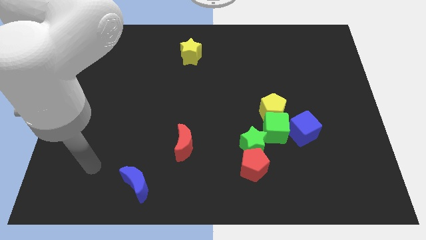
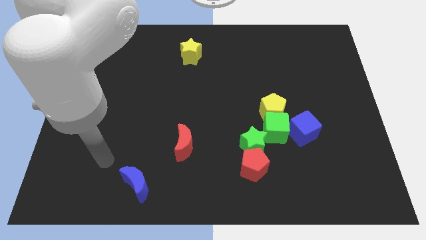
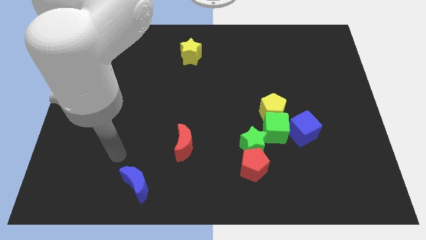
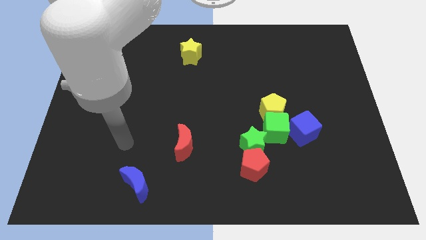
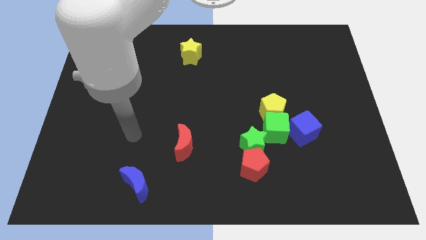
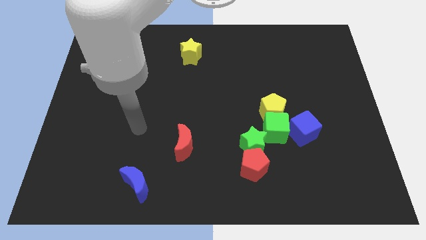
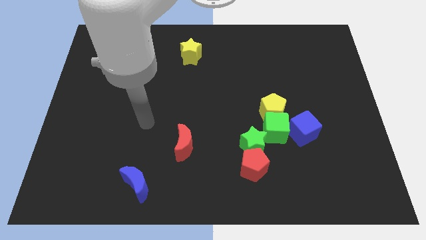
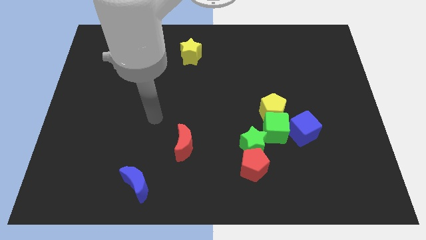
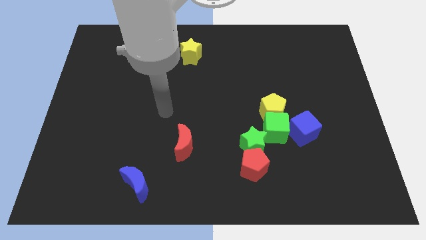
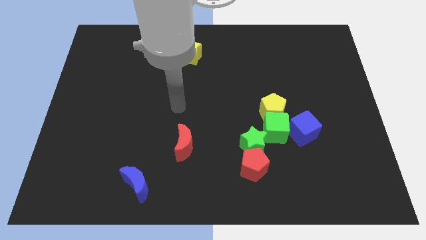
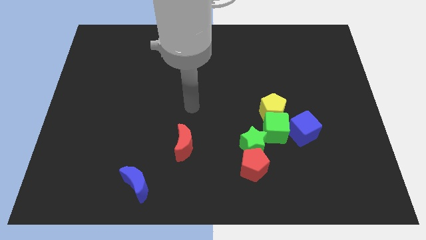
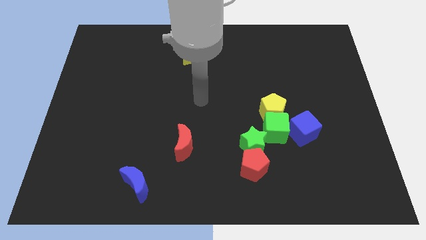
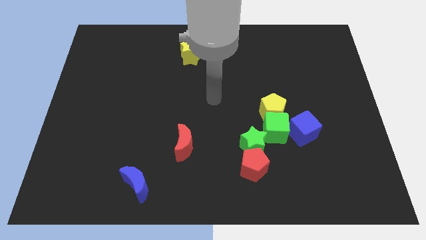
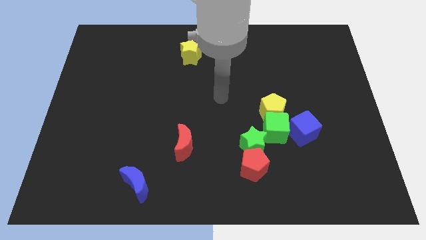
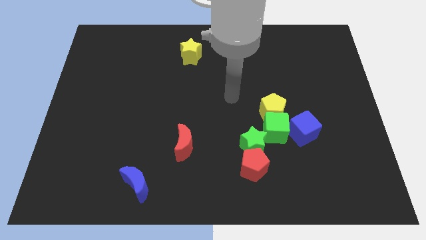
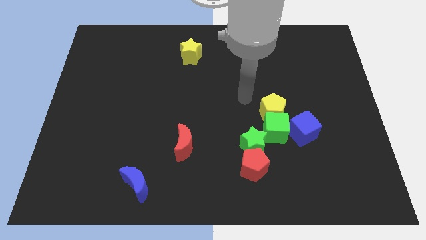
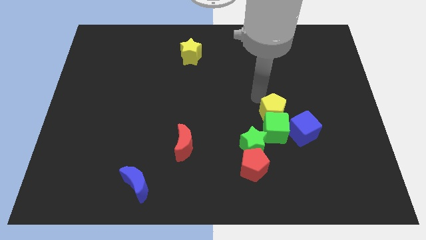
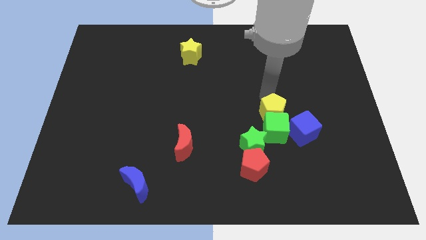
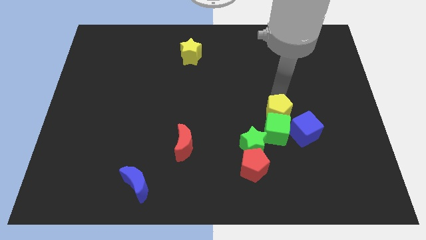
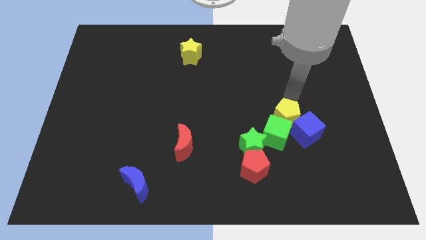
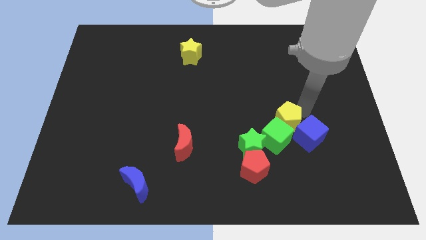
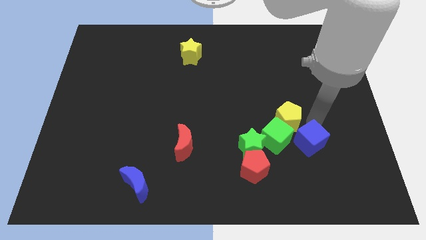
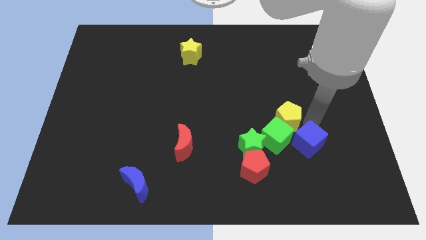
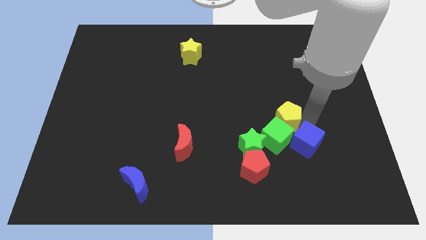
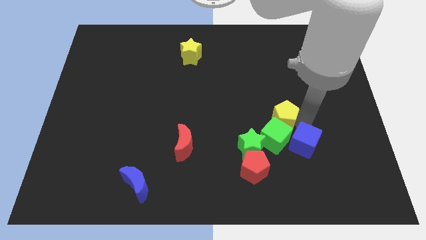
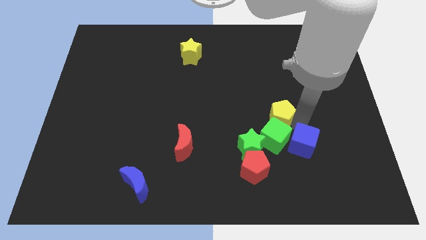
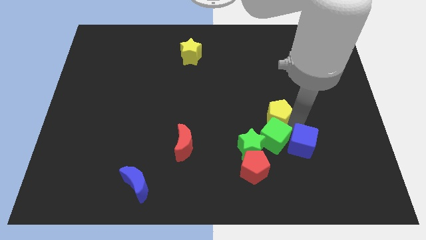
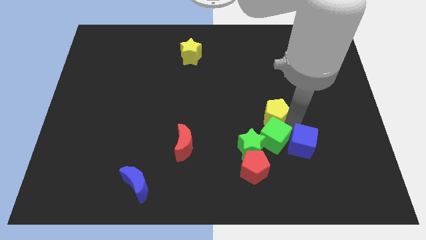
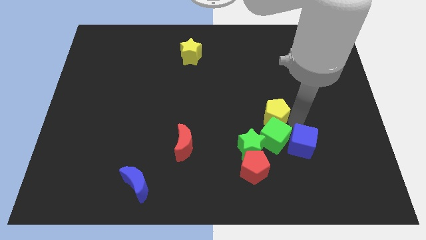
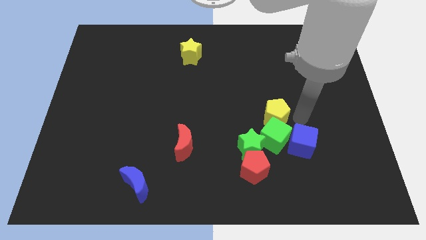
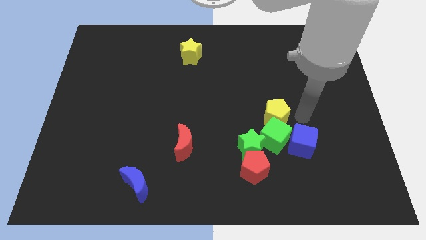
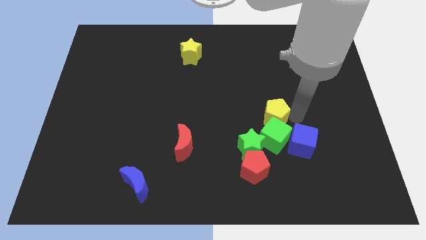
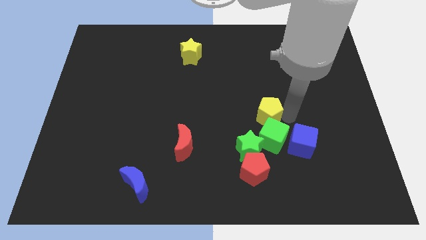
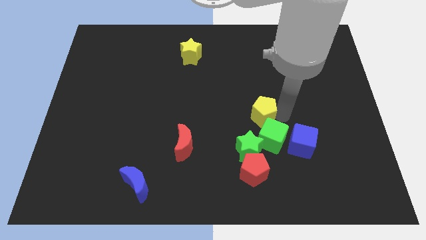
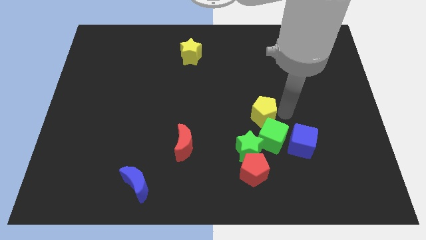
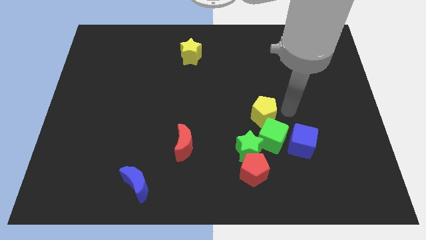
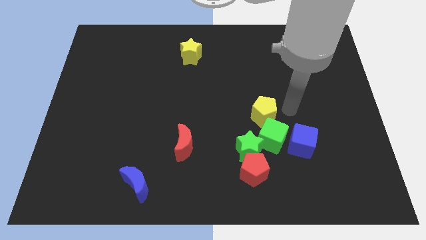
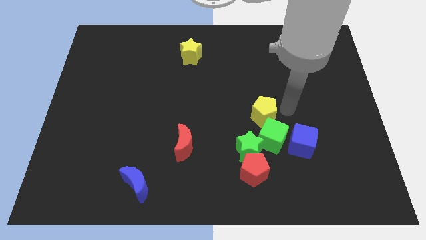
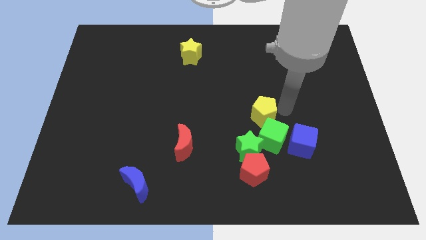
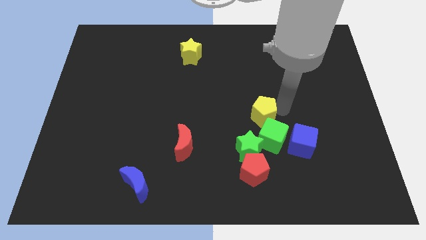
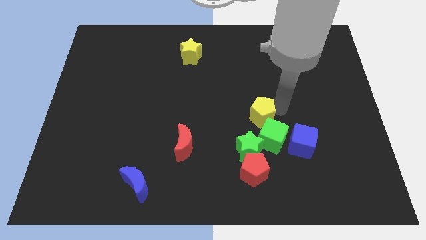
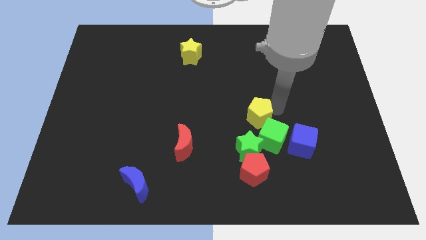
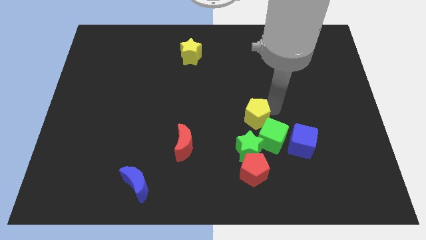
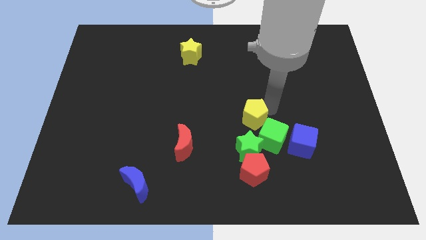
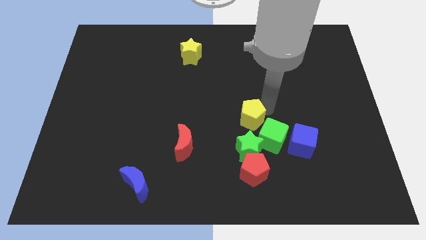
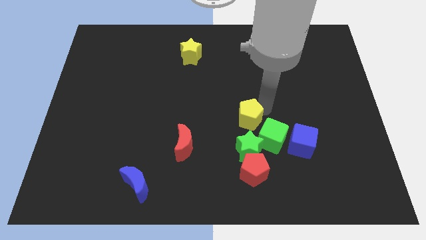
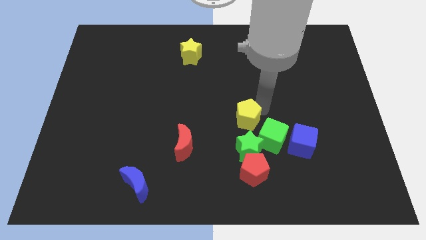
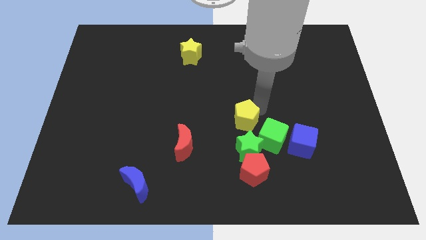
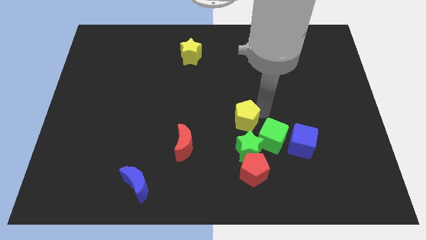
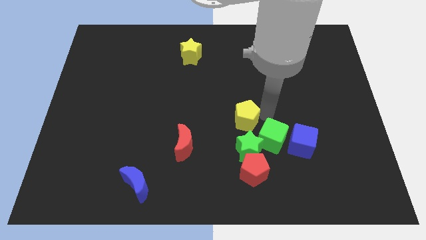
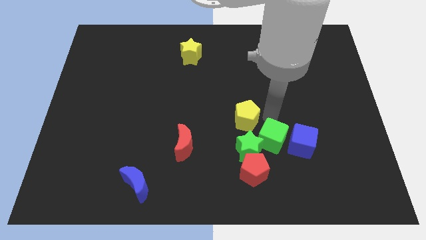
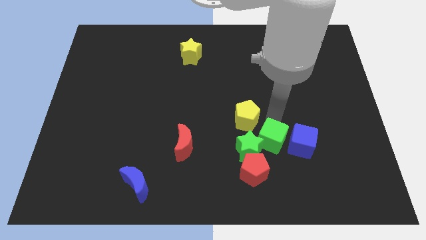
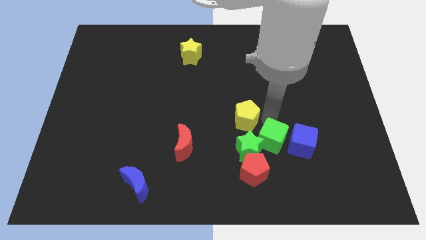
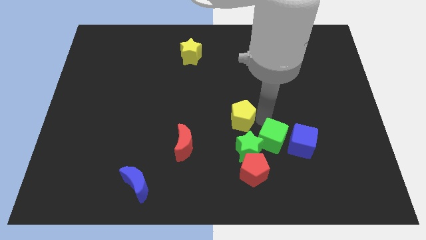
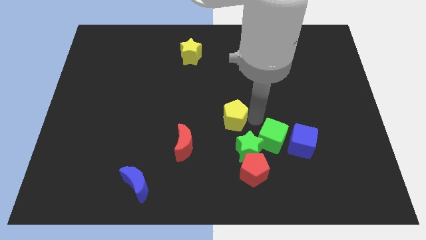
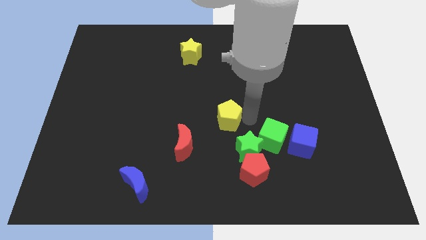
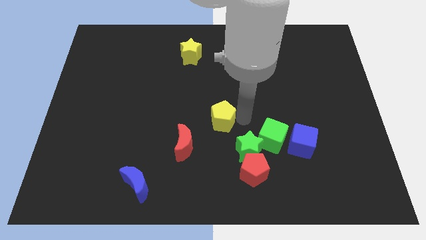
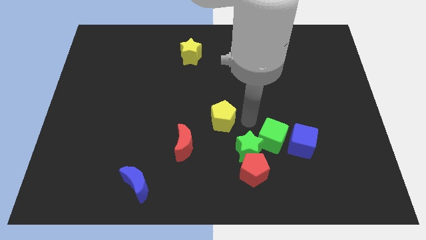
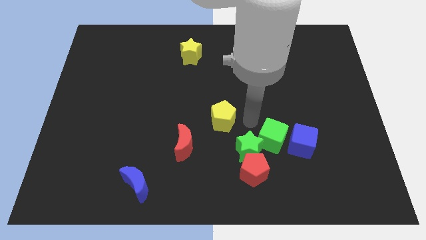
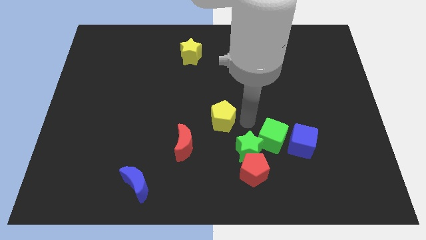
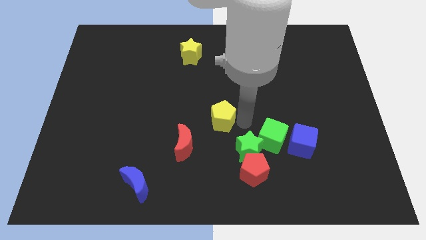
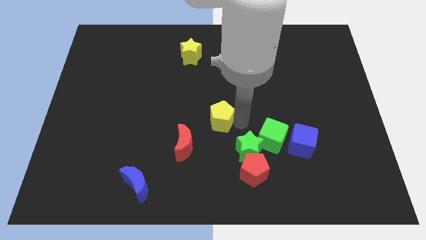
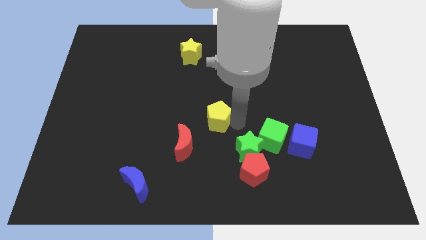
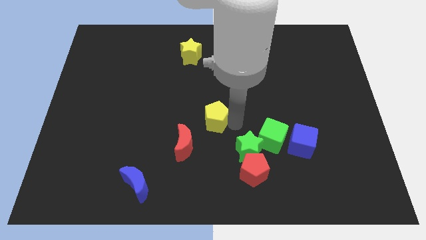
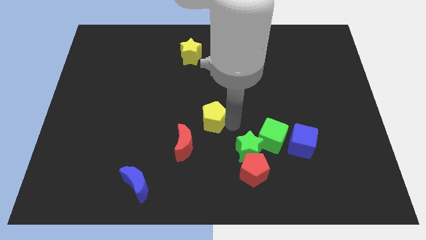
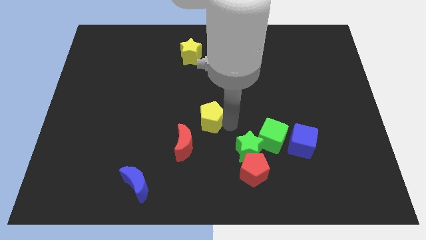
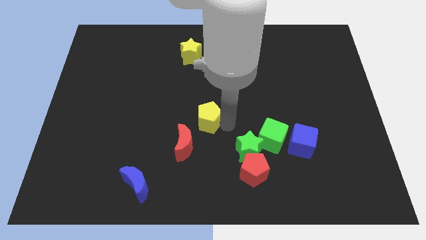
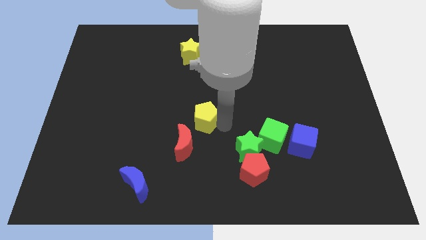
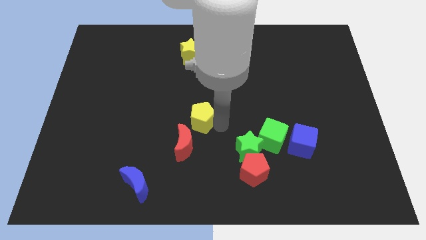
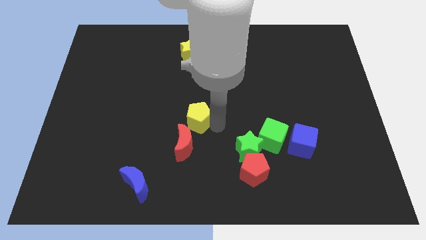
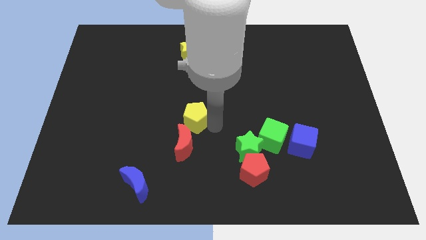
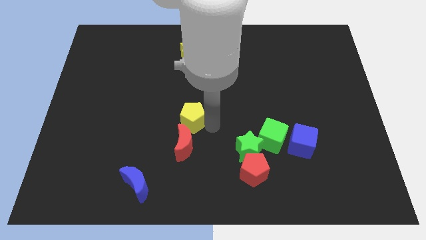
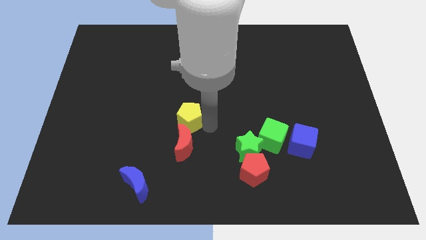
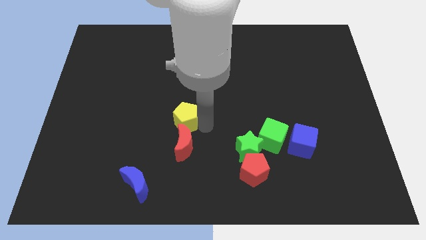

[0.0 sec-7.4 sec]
slide the yellow pentagon to the left

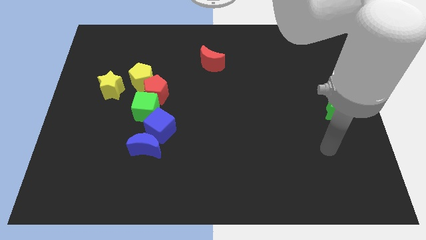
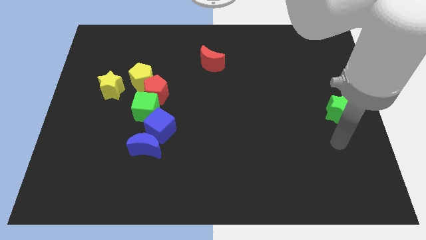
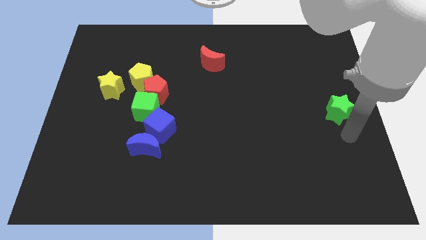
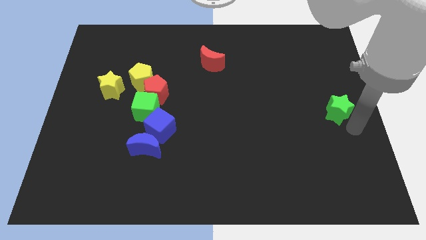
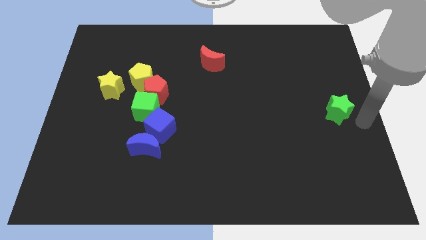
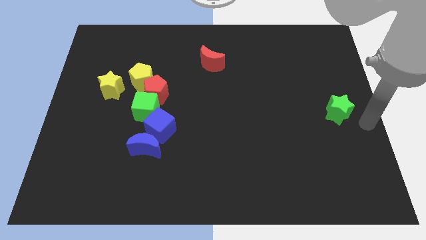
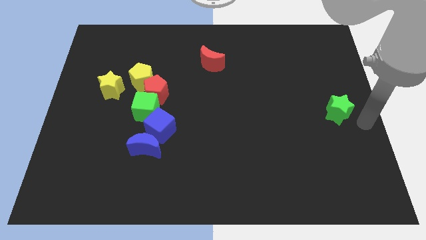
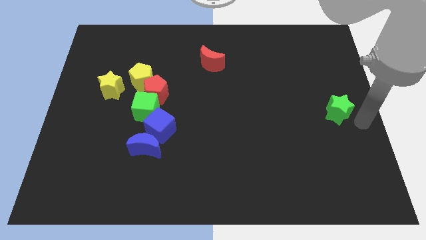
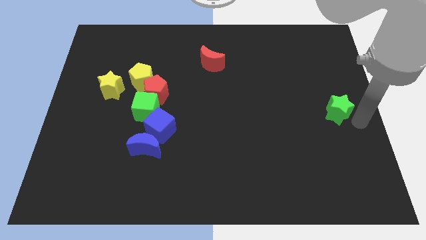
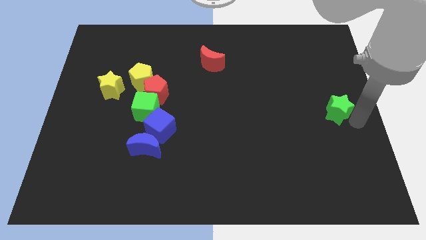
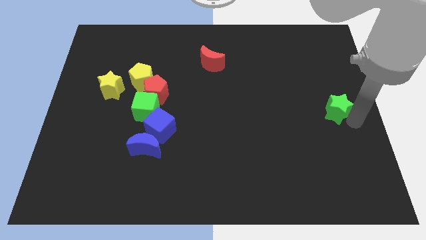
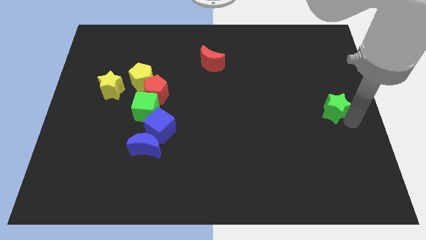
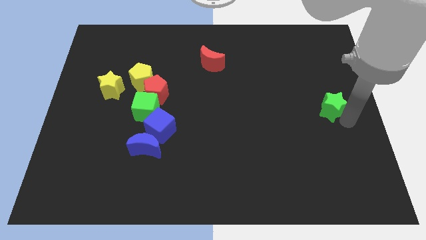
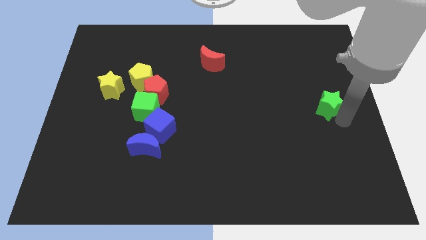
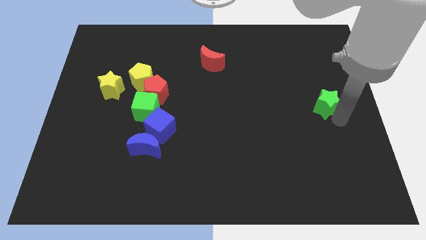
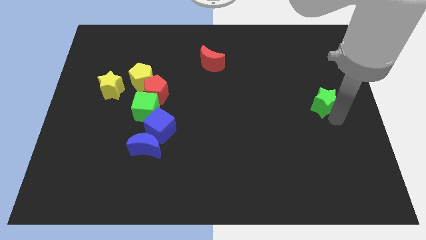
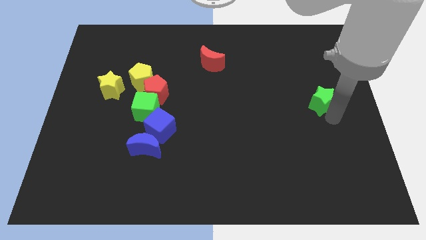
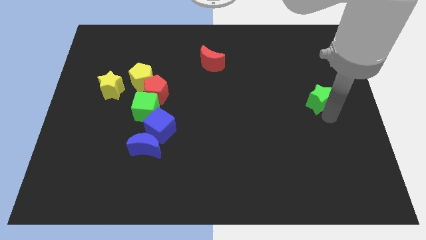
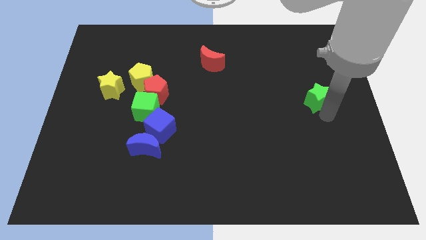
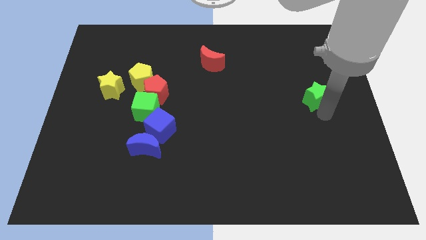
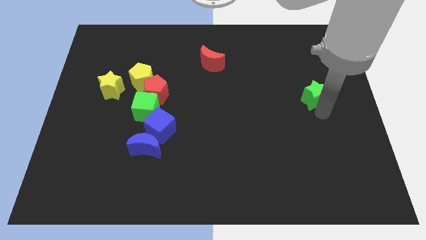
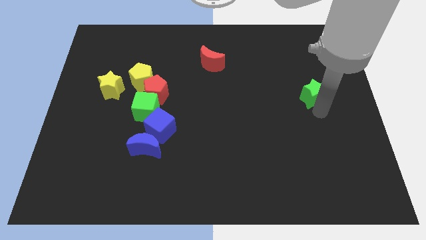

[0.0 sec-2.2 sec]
slide the green star up and left a bit
